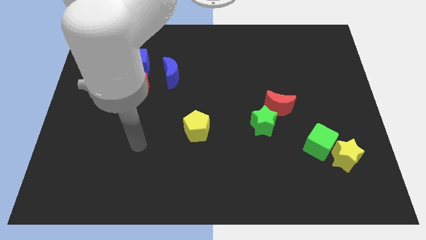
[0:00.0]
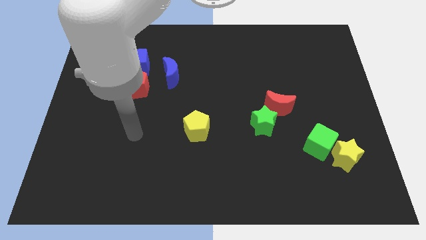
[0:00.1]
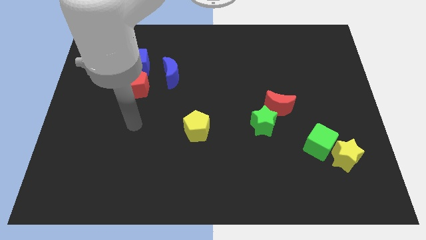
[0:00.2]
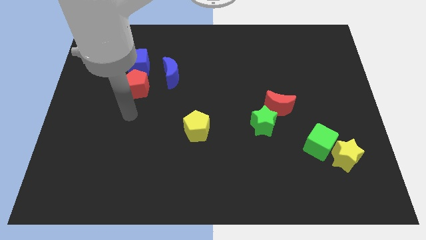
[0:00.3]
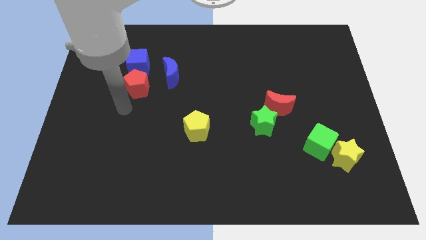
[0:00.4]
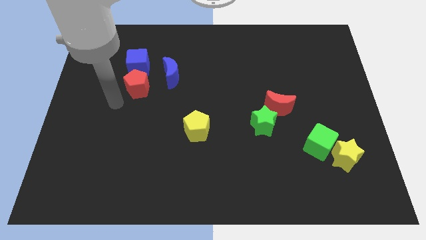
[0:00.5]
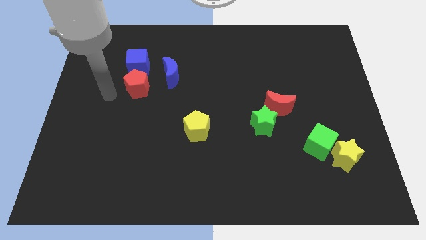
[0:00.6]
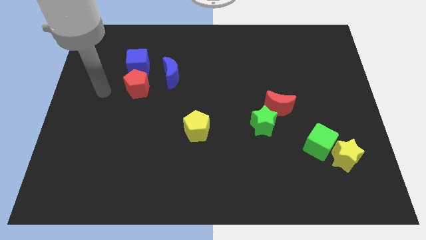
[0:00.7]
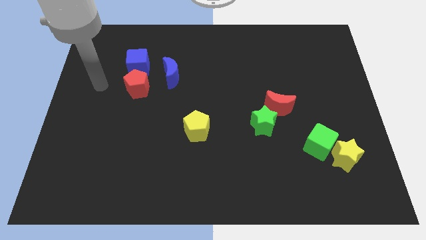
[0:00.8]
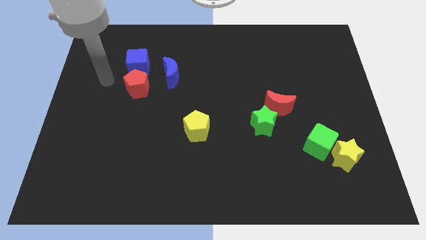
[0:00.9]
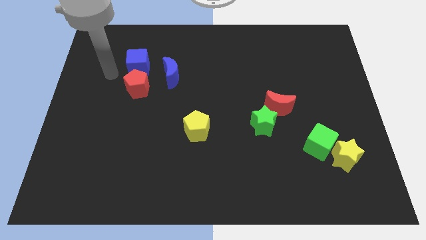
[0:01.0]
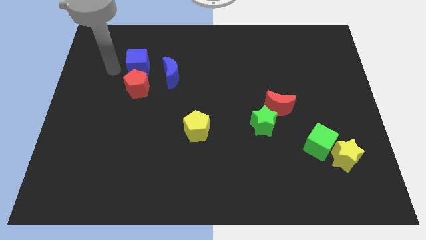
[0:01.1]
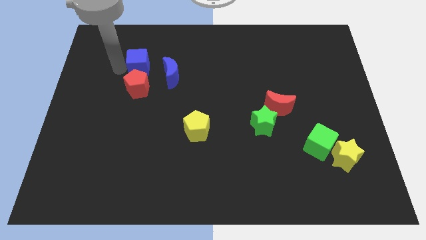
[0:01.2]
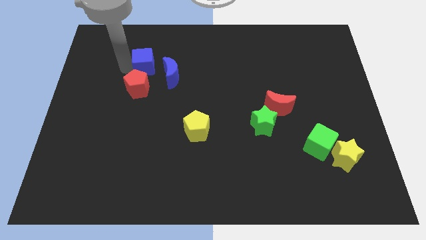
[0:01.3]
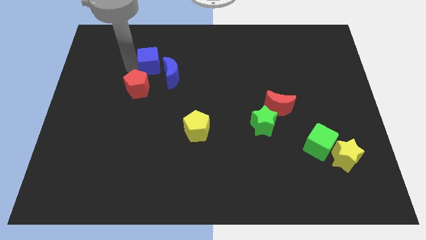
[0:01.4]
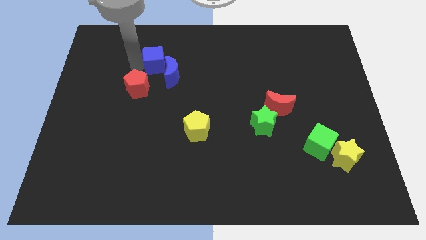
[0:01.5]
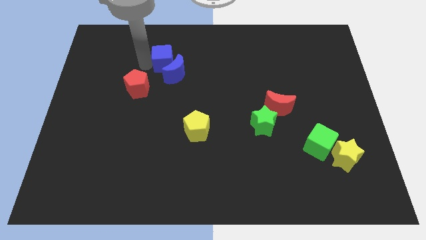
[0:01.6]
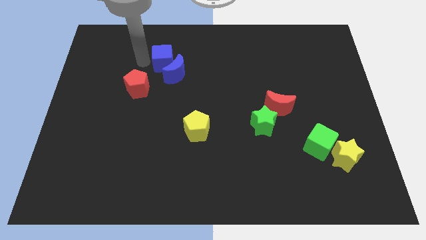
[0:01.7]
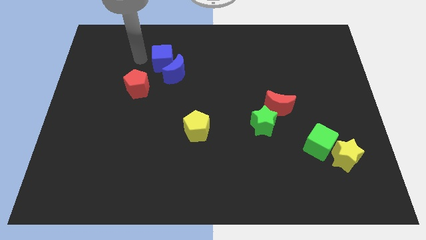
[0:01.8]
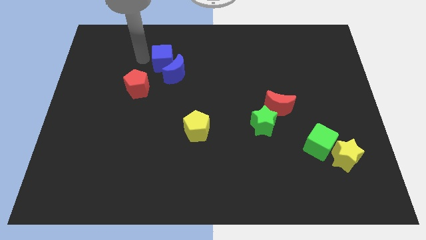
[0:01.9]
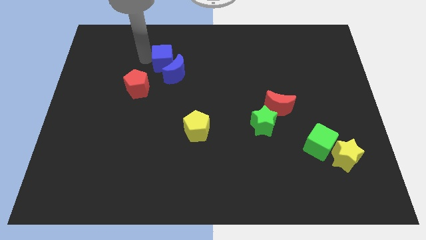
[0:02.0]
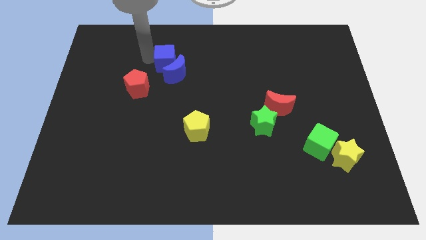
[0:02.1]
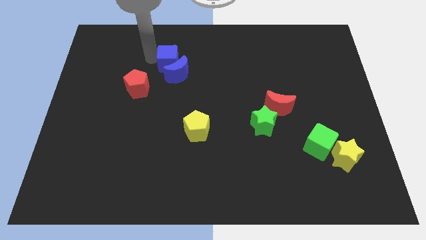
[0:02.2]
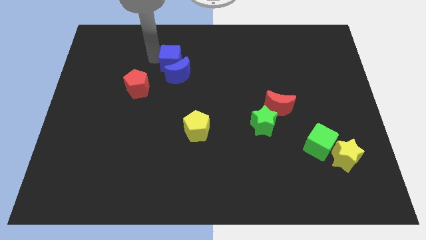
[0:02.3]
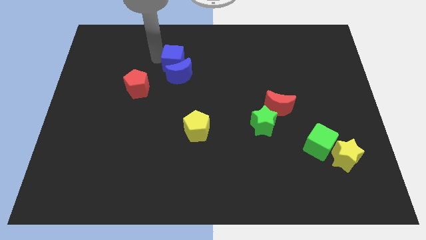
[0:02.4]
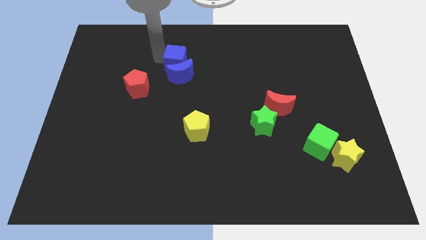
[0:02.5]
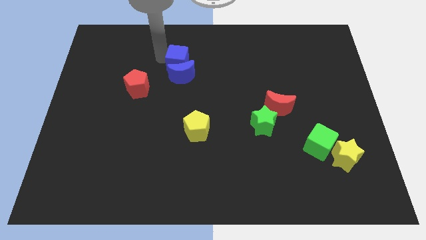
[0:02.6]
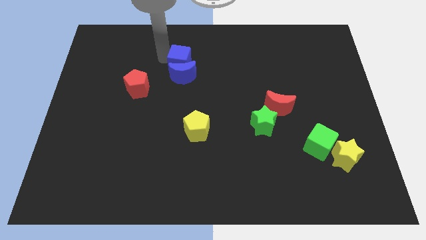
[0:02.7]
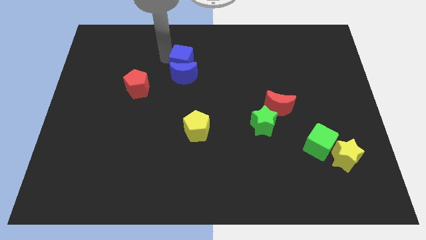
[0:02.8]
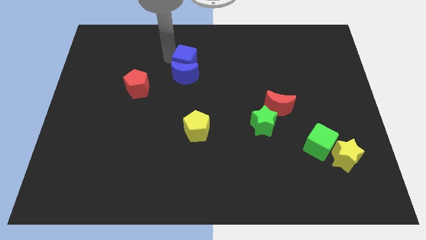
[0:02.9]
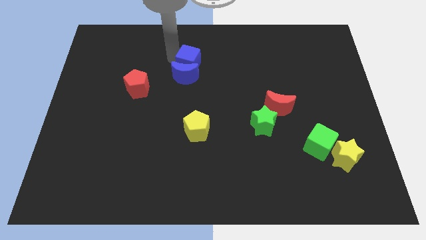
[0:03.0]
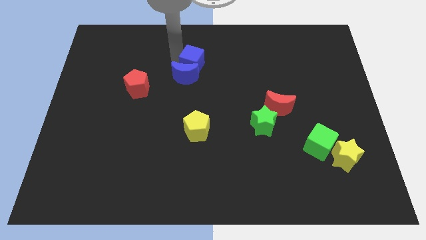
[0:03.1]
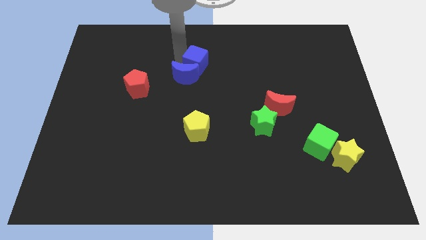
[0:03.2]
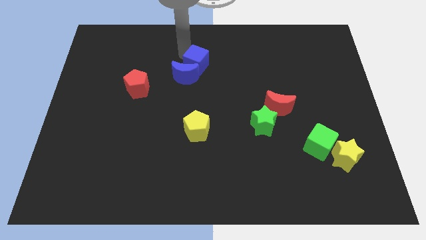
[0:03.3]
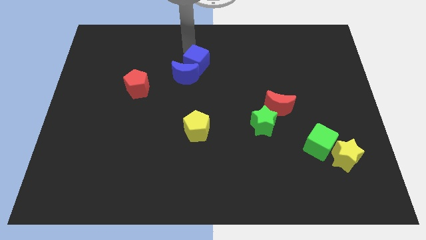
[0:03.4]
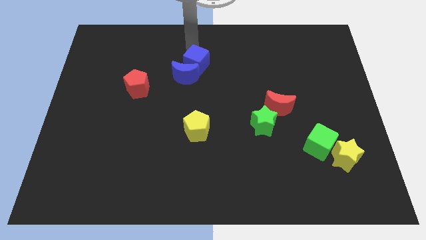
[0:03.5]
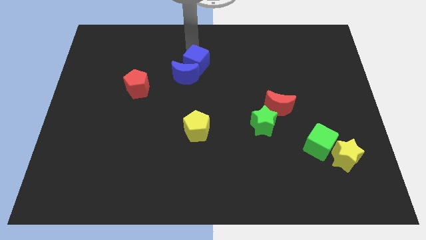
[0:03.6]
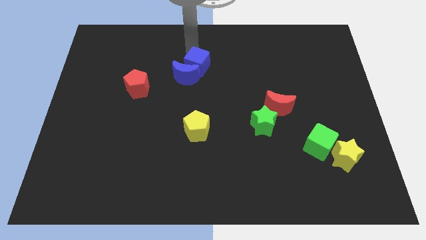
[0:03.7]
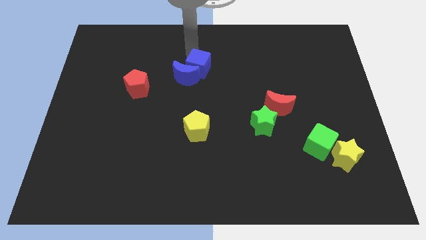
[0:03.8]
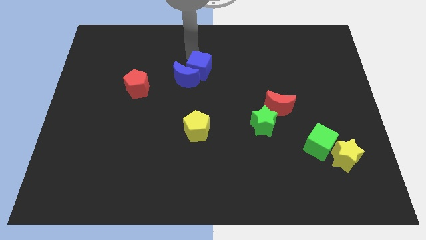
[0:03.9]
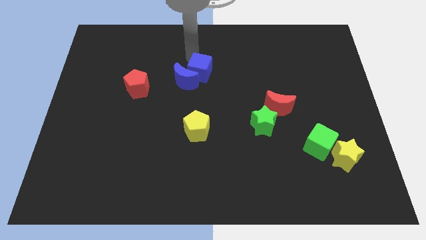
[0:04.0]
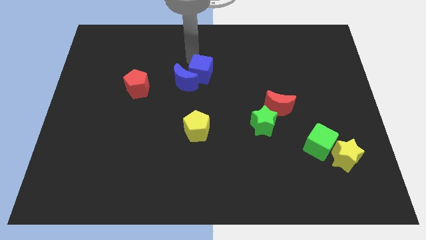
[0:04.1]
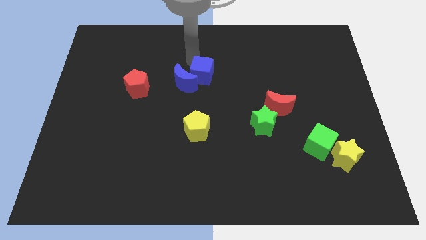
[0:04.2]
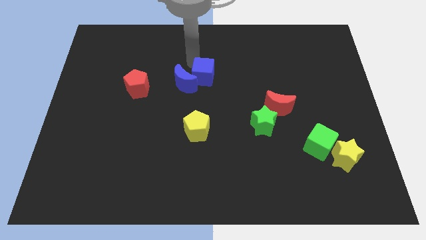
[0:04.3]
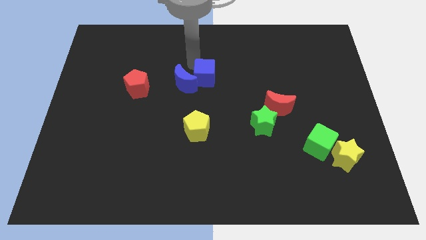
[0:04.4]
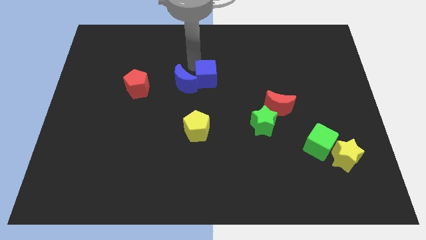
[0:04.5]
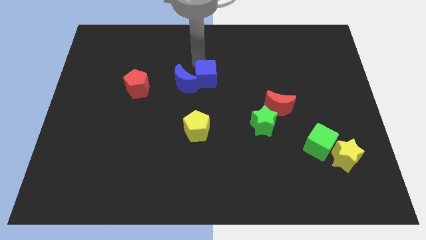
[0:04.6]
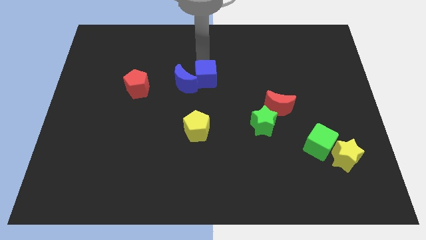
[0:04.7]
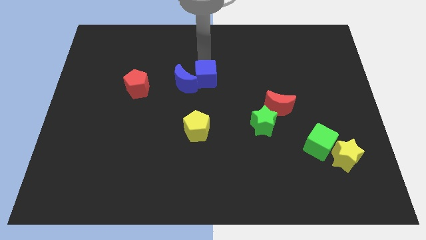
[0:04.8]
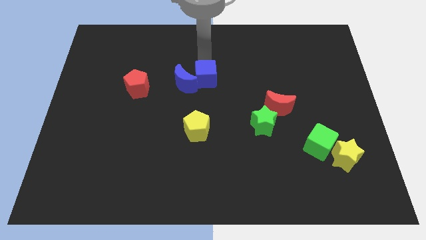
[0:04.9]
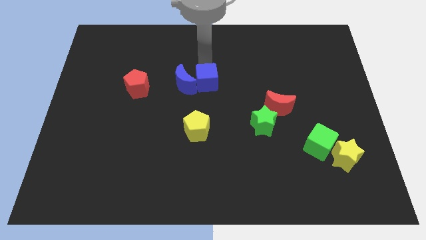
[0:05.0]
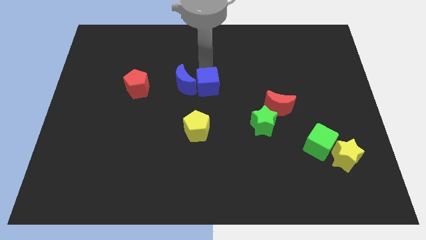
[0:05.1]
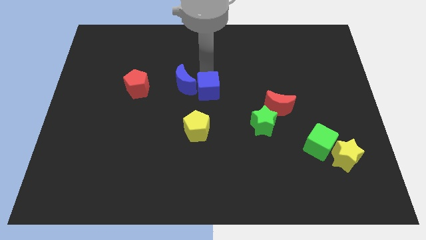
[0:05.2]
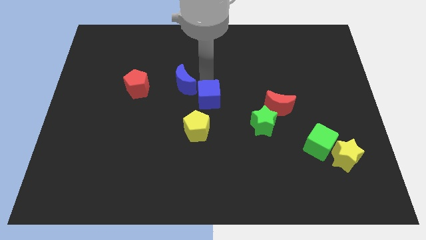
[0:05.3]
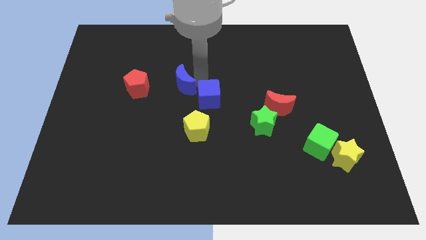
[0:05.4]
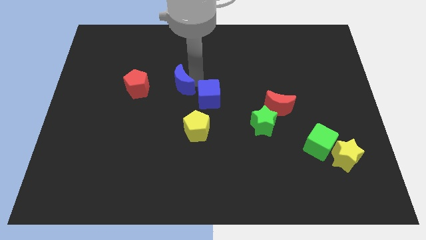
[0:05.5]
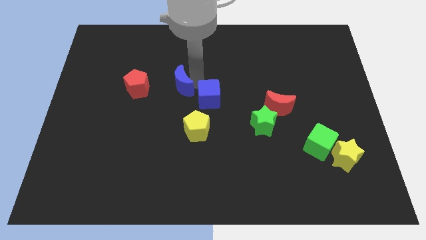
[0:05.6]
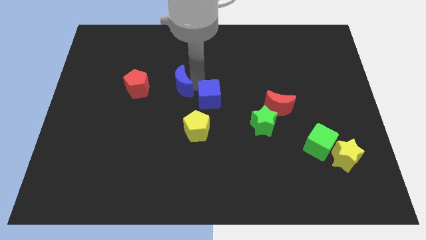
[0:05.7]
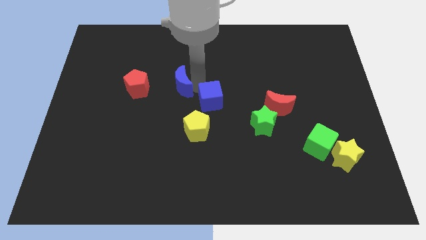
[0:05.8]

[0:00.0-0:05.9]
move the blue cube diagonally down and right

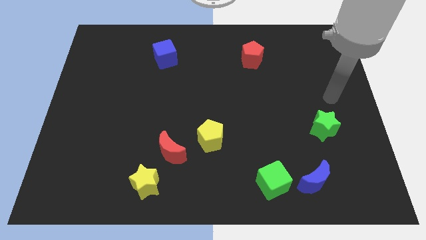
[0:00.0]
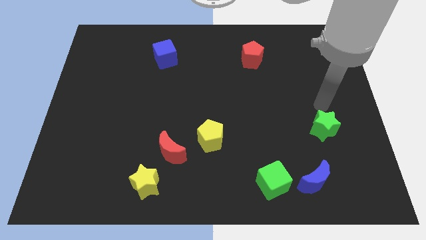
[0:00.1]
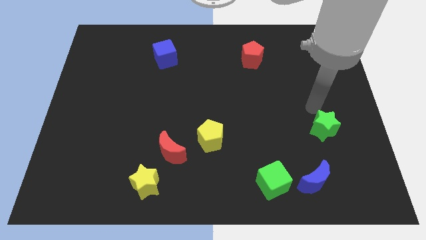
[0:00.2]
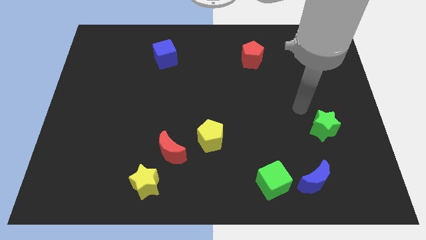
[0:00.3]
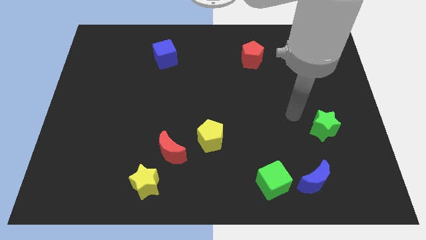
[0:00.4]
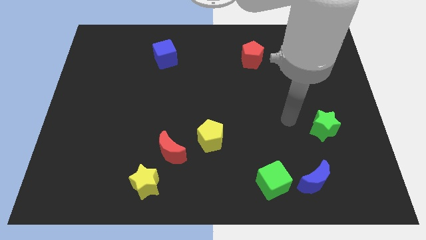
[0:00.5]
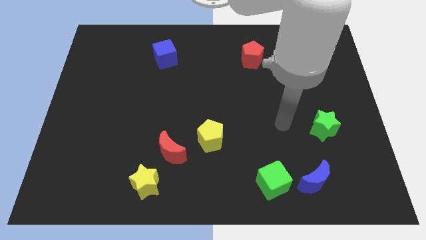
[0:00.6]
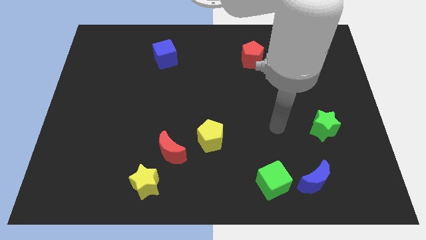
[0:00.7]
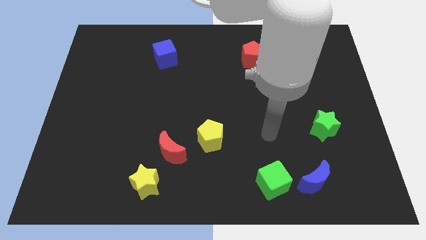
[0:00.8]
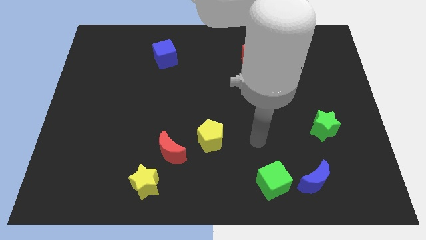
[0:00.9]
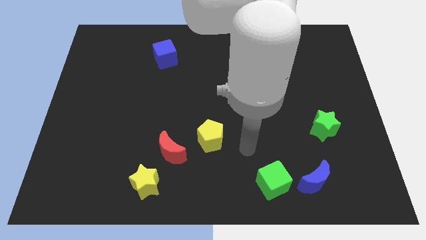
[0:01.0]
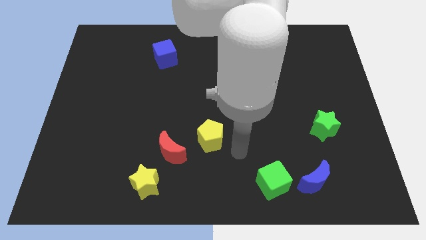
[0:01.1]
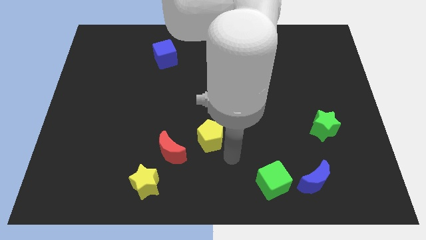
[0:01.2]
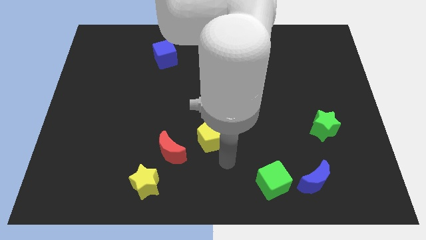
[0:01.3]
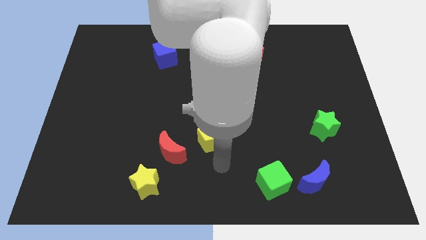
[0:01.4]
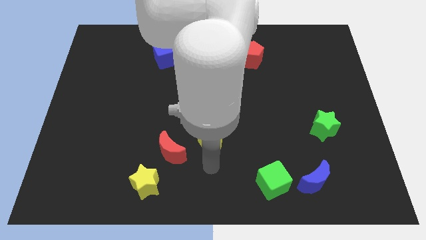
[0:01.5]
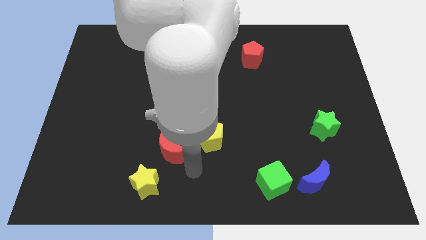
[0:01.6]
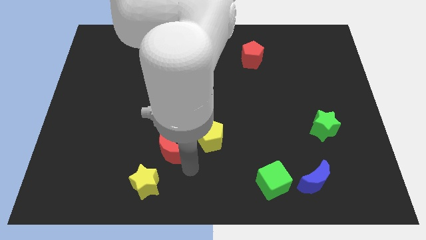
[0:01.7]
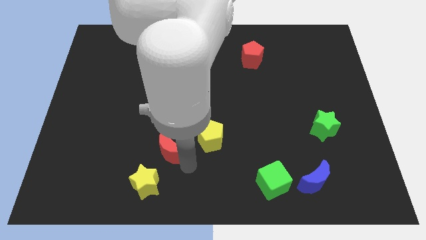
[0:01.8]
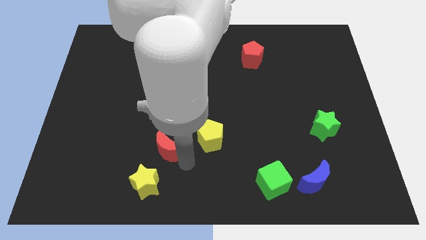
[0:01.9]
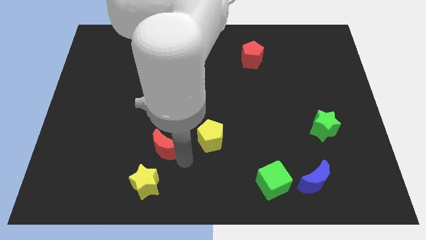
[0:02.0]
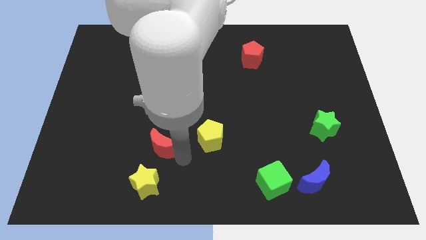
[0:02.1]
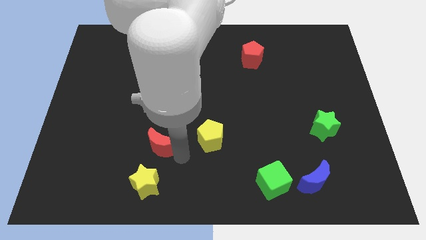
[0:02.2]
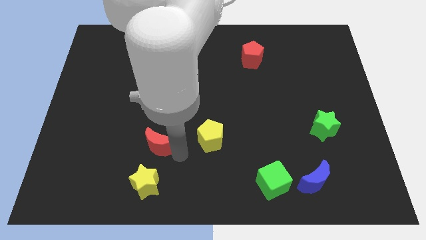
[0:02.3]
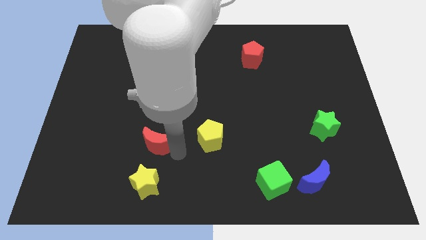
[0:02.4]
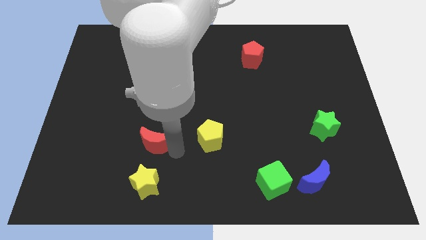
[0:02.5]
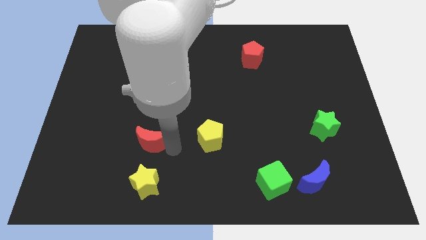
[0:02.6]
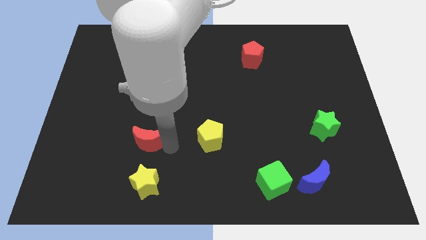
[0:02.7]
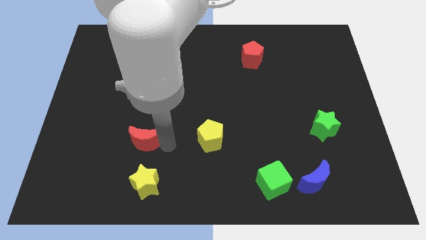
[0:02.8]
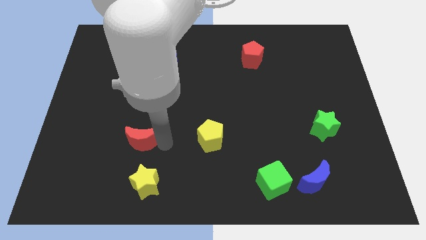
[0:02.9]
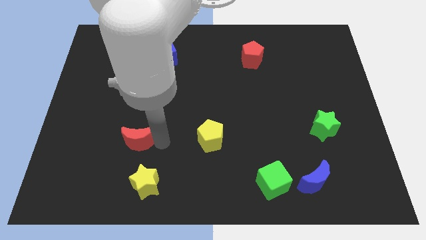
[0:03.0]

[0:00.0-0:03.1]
slide the red moon a little upwards and then left
